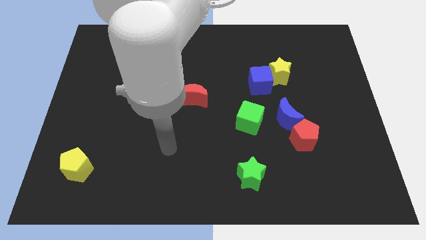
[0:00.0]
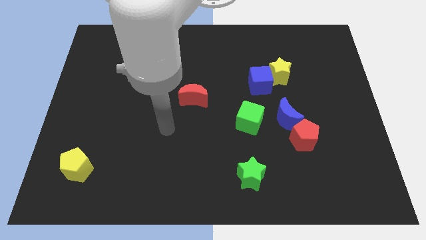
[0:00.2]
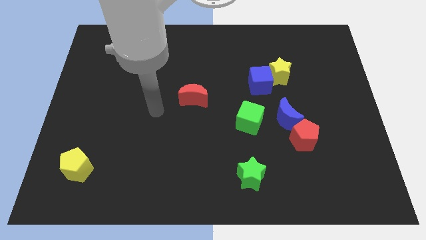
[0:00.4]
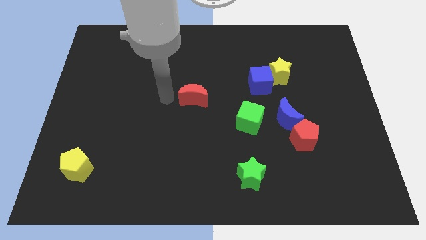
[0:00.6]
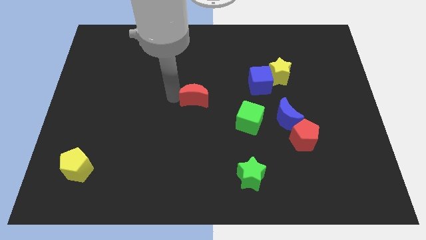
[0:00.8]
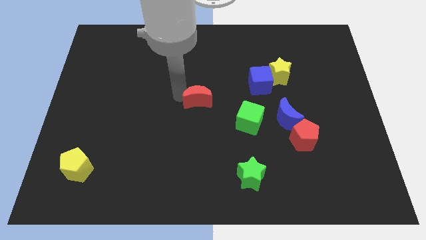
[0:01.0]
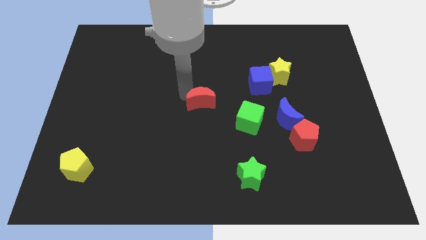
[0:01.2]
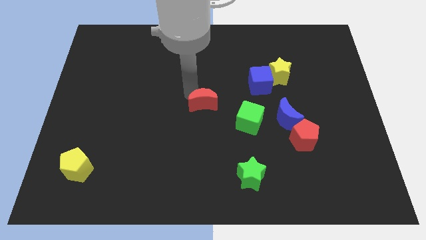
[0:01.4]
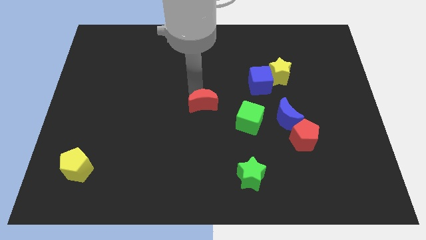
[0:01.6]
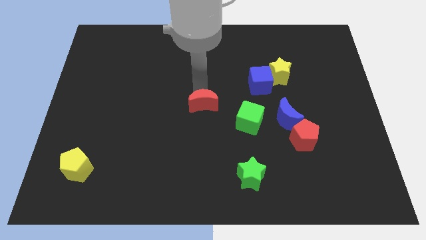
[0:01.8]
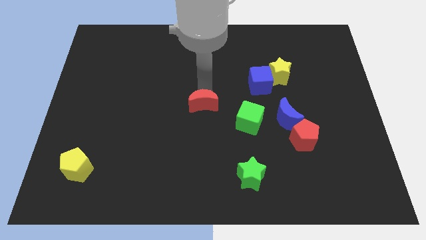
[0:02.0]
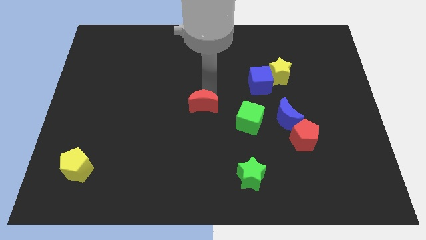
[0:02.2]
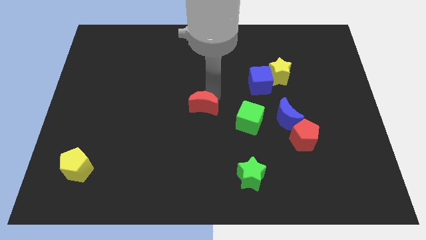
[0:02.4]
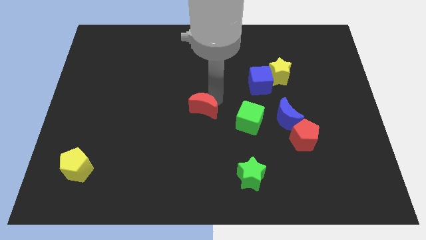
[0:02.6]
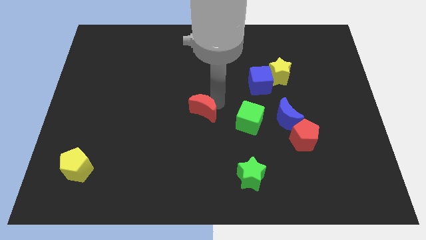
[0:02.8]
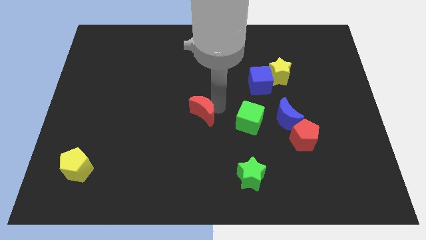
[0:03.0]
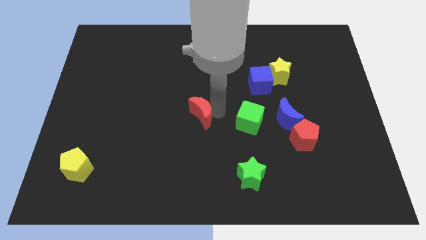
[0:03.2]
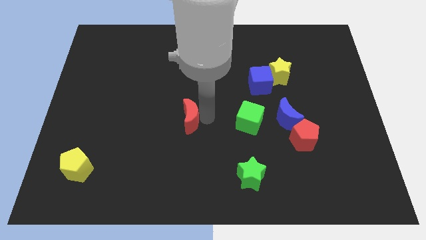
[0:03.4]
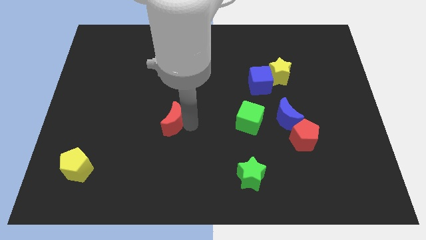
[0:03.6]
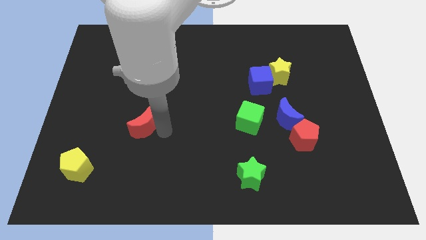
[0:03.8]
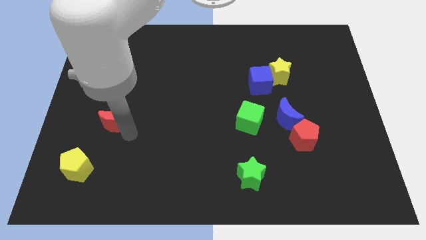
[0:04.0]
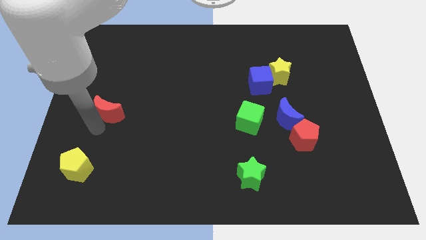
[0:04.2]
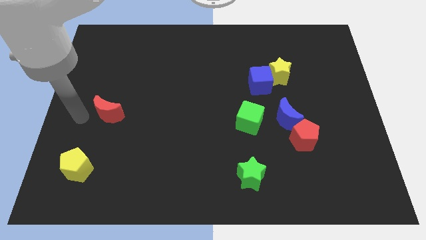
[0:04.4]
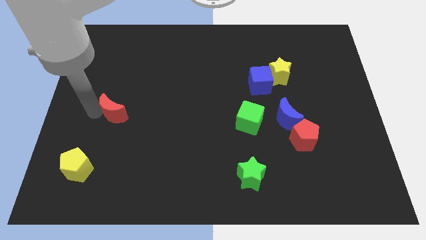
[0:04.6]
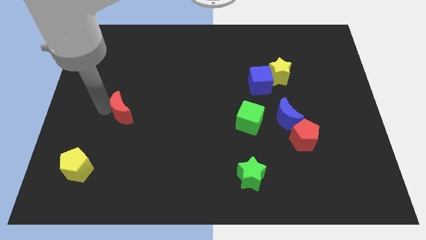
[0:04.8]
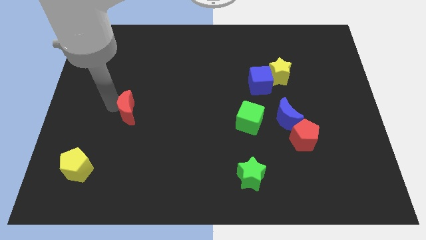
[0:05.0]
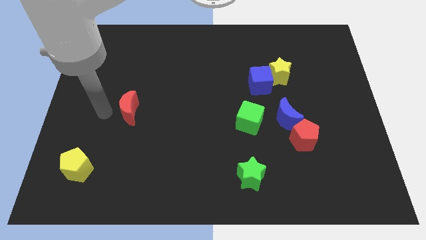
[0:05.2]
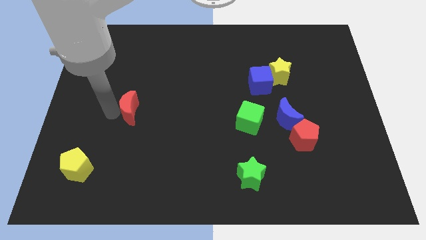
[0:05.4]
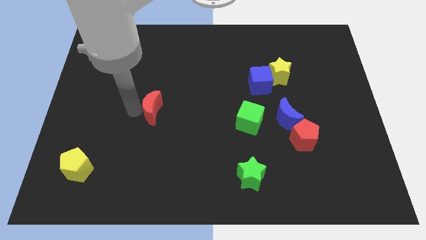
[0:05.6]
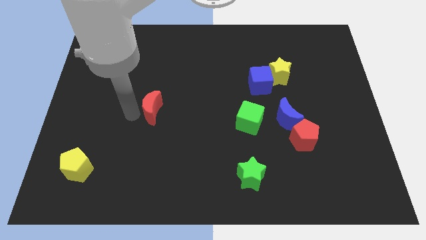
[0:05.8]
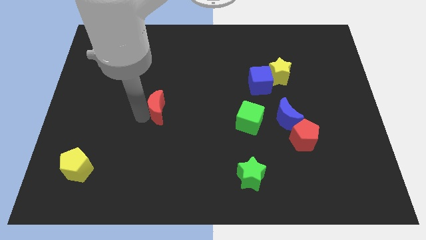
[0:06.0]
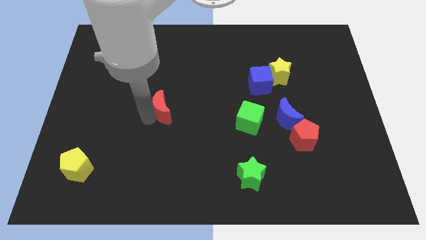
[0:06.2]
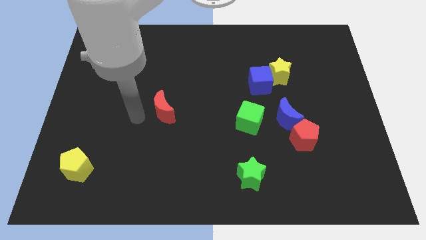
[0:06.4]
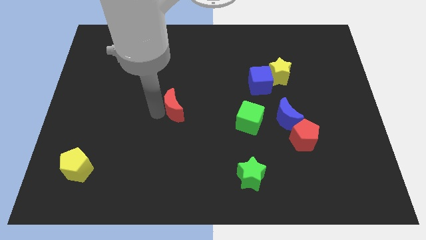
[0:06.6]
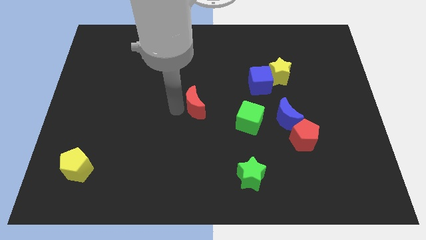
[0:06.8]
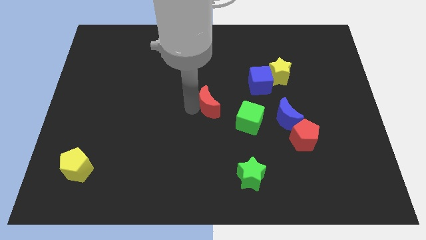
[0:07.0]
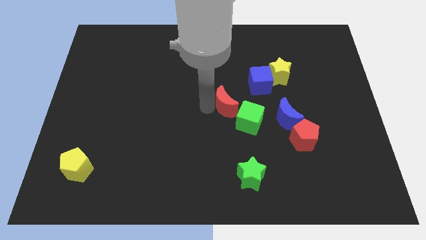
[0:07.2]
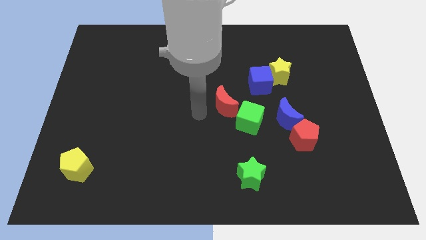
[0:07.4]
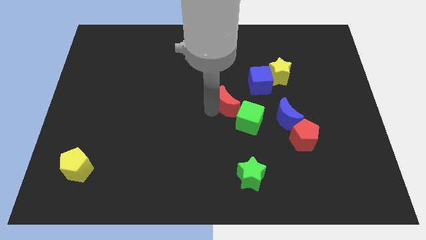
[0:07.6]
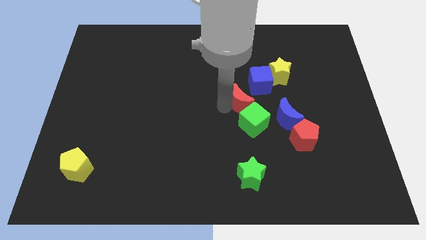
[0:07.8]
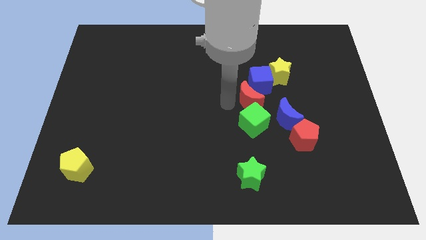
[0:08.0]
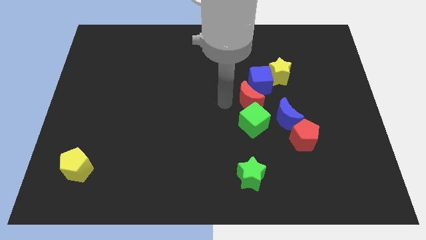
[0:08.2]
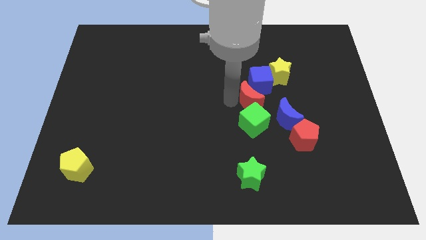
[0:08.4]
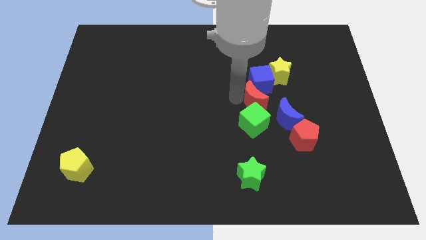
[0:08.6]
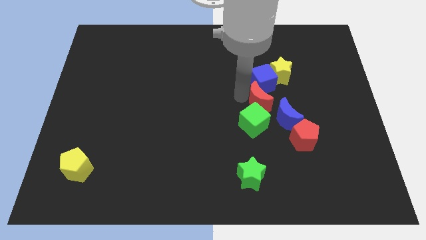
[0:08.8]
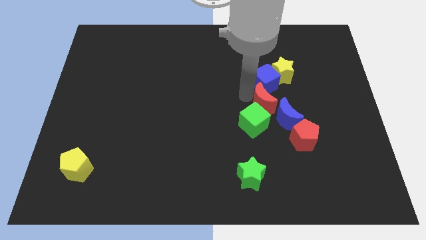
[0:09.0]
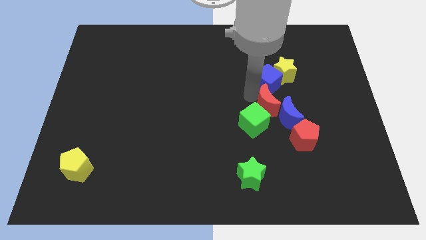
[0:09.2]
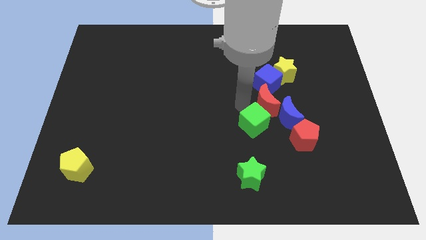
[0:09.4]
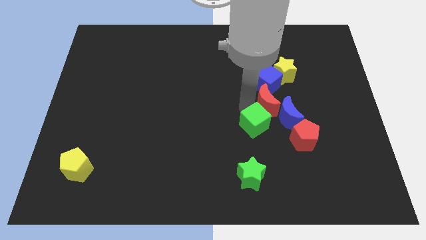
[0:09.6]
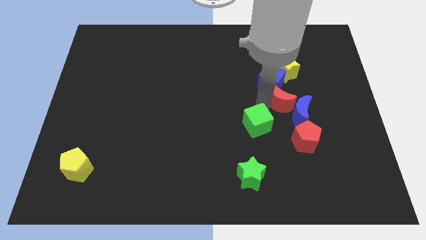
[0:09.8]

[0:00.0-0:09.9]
move the red moon to the right

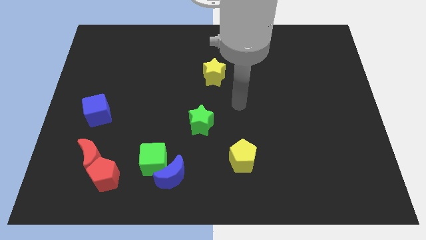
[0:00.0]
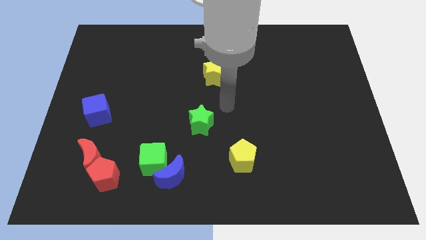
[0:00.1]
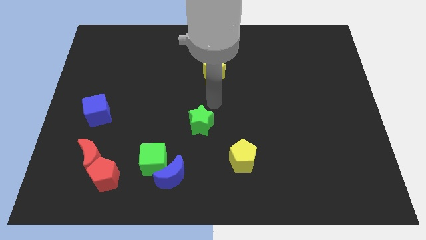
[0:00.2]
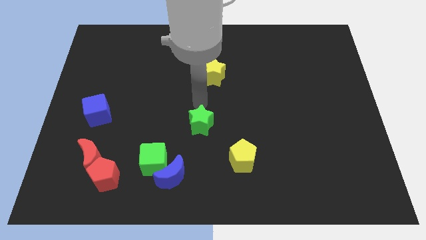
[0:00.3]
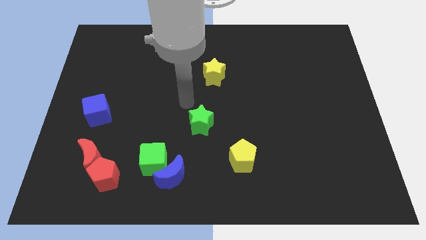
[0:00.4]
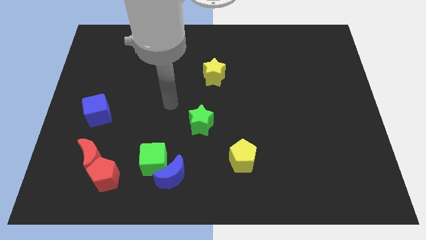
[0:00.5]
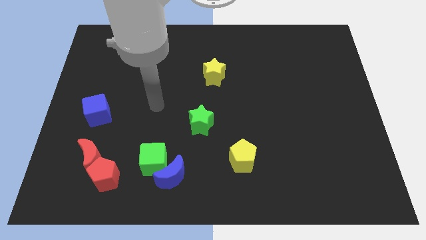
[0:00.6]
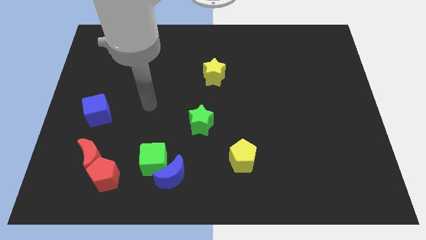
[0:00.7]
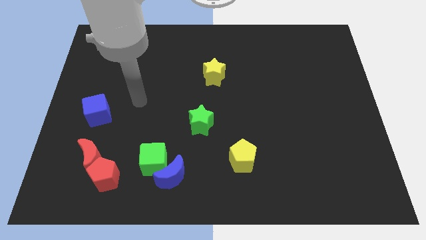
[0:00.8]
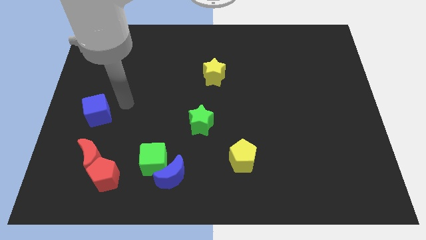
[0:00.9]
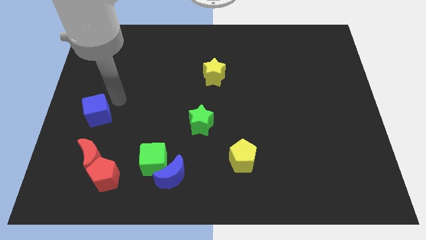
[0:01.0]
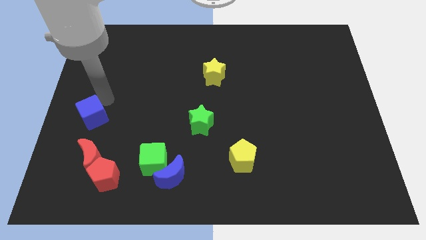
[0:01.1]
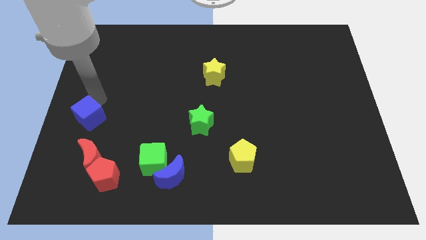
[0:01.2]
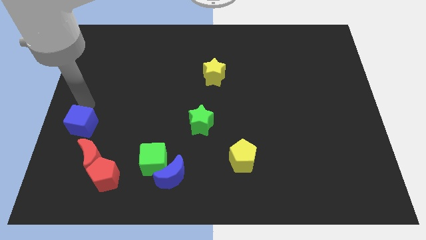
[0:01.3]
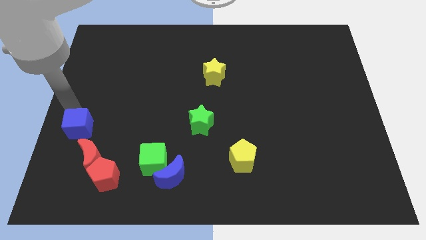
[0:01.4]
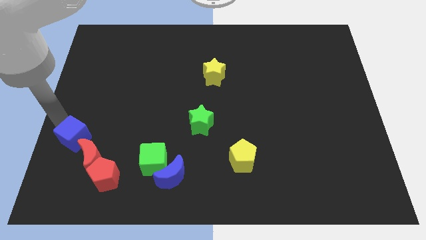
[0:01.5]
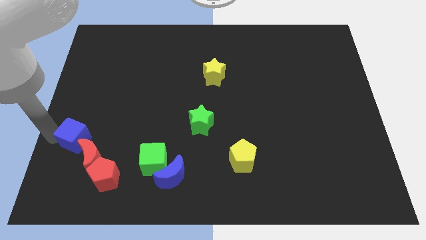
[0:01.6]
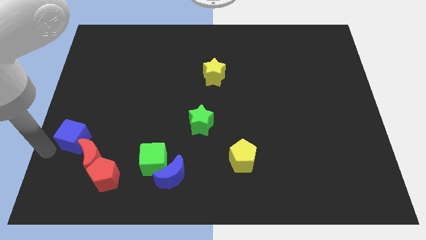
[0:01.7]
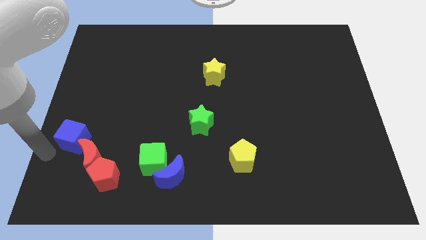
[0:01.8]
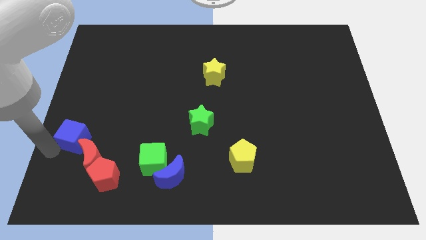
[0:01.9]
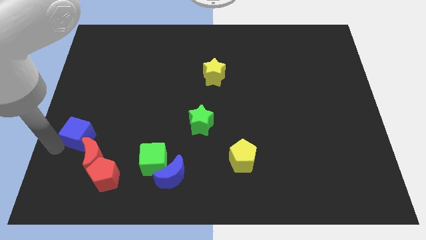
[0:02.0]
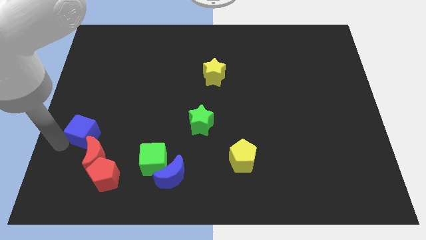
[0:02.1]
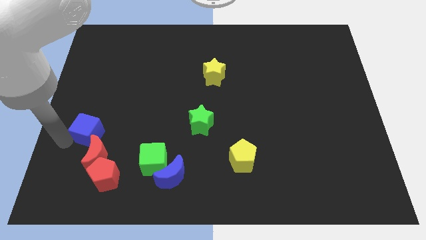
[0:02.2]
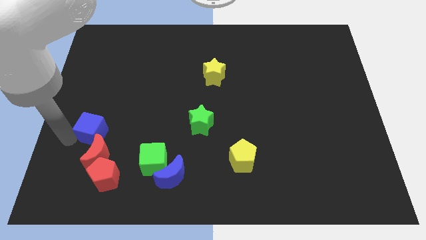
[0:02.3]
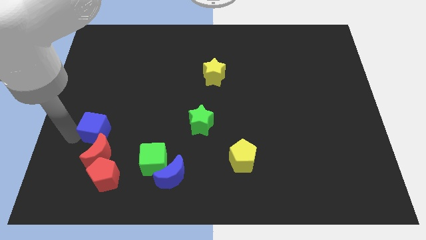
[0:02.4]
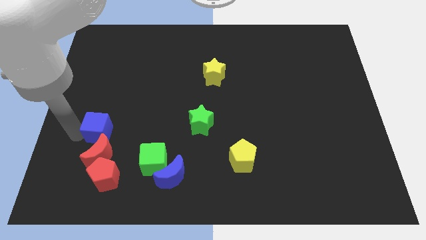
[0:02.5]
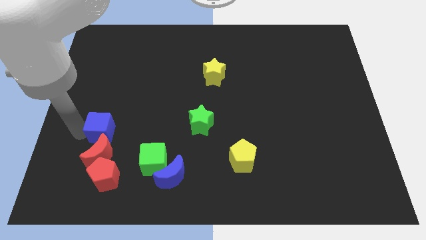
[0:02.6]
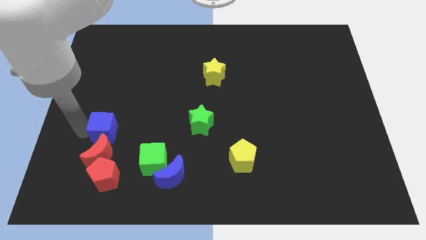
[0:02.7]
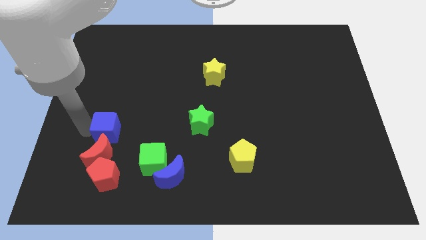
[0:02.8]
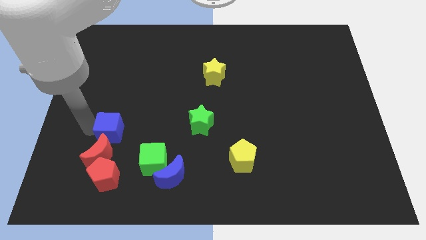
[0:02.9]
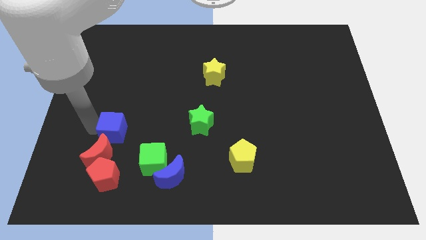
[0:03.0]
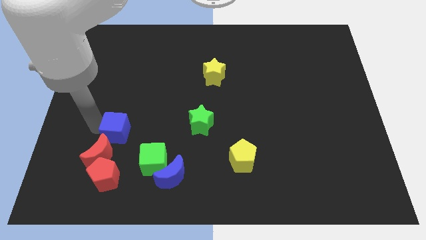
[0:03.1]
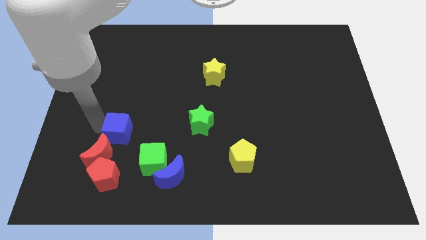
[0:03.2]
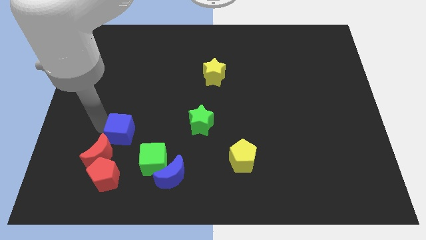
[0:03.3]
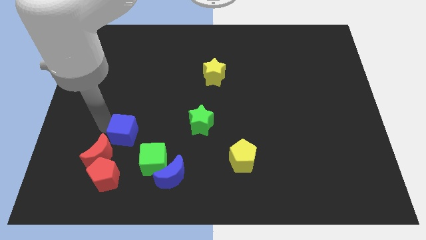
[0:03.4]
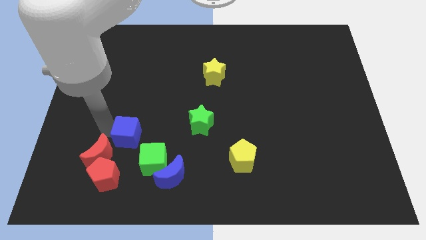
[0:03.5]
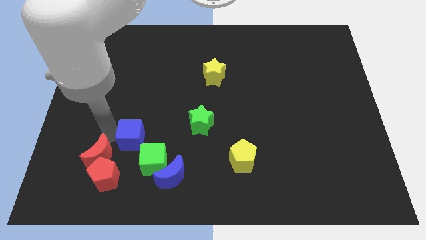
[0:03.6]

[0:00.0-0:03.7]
move the blue cube slightly to the right
